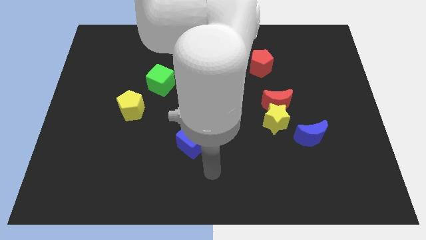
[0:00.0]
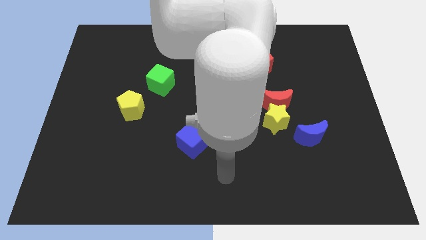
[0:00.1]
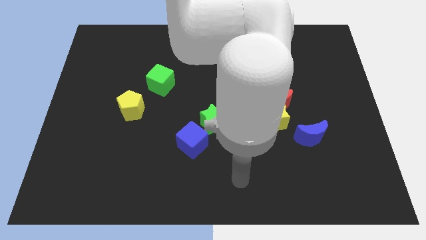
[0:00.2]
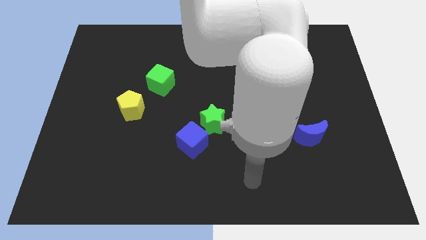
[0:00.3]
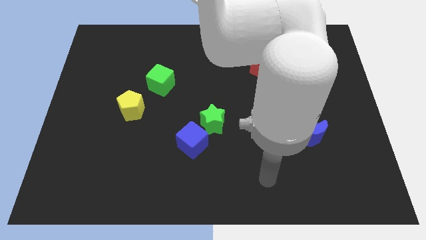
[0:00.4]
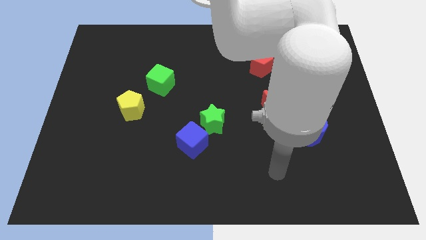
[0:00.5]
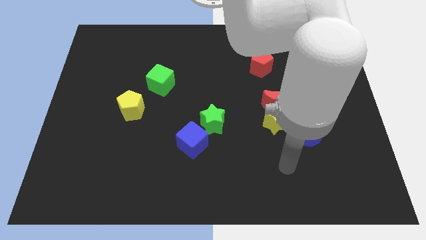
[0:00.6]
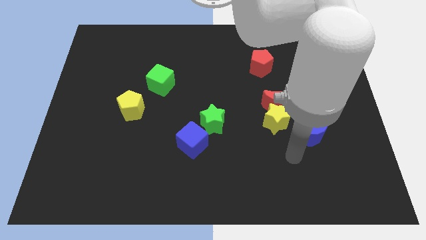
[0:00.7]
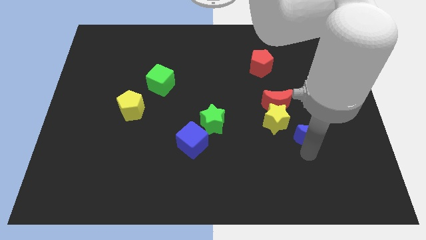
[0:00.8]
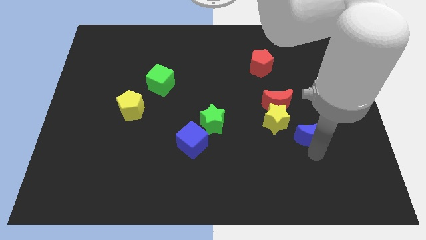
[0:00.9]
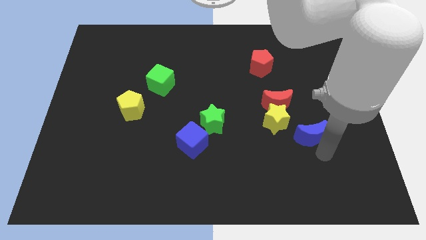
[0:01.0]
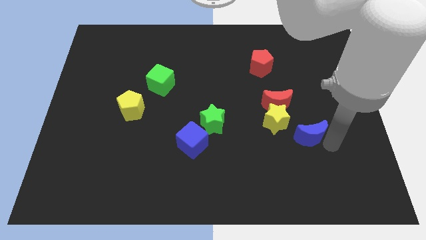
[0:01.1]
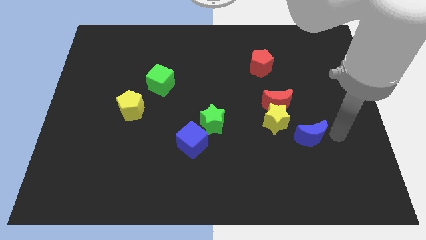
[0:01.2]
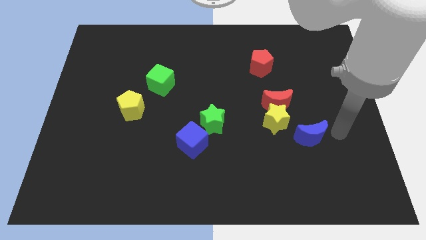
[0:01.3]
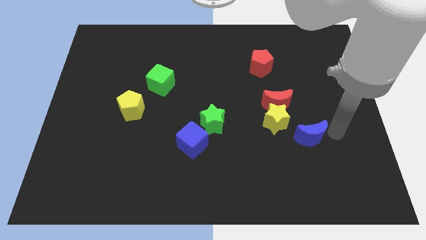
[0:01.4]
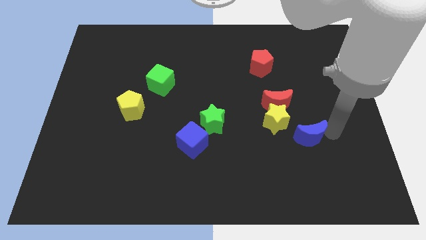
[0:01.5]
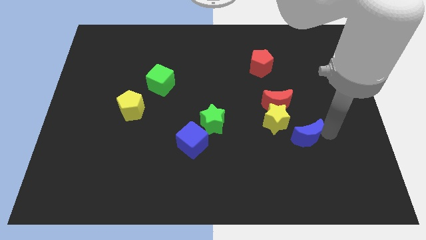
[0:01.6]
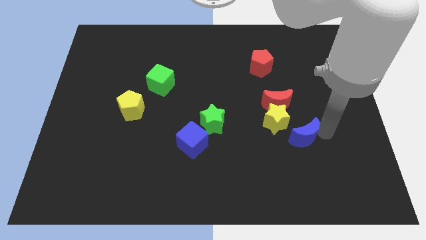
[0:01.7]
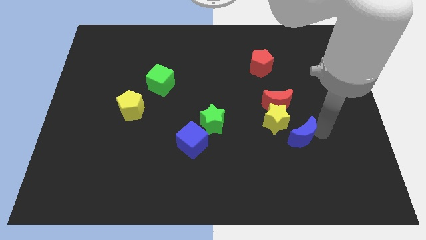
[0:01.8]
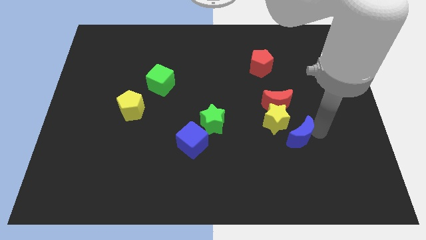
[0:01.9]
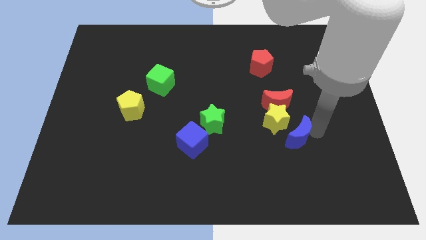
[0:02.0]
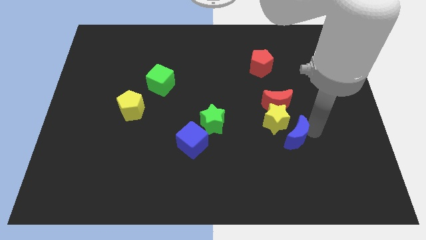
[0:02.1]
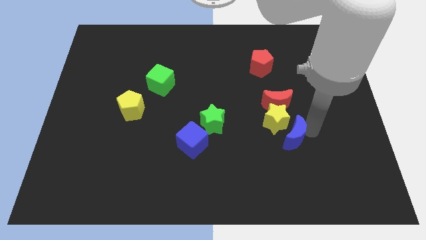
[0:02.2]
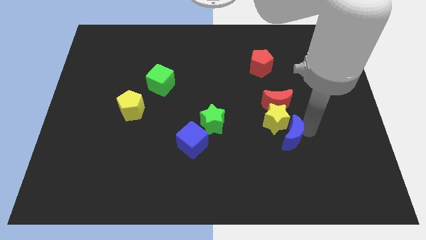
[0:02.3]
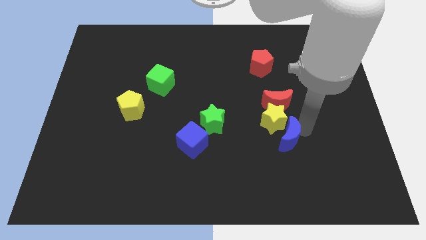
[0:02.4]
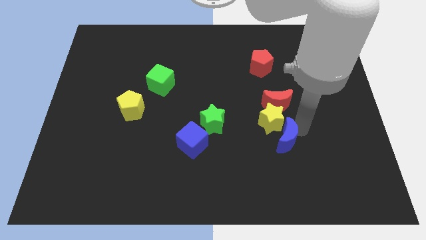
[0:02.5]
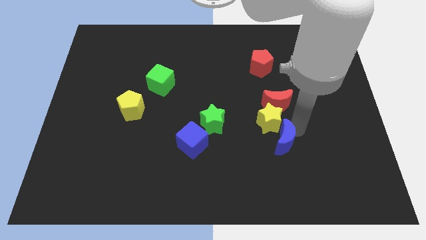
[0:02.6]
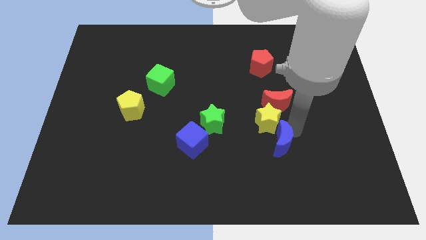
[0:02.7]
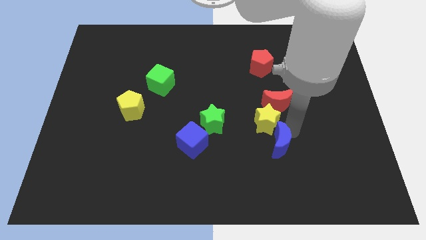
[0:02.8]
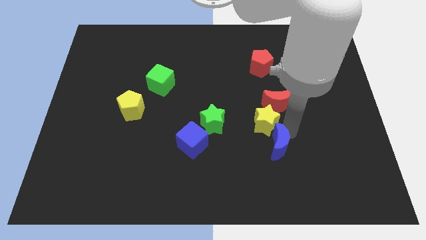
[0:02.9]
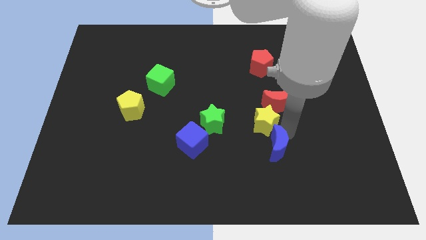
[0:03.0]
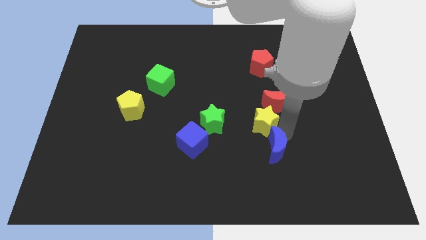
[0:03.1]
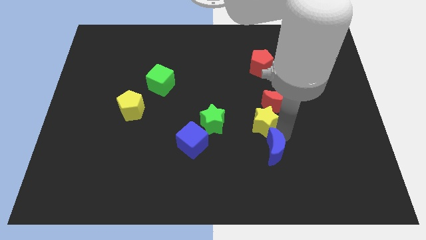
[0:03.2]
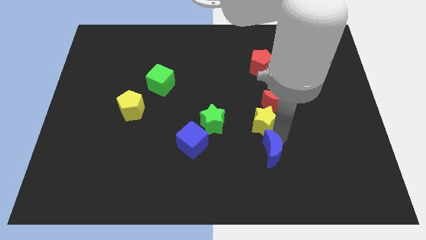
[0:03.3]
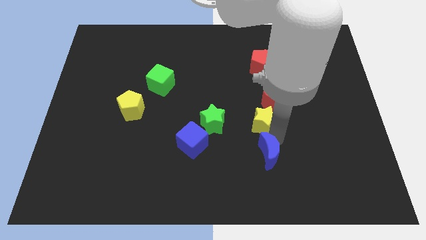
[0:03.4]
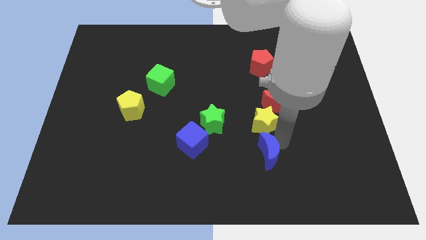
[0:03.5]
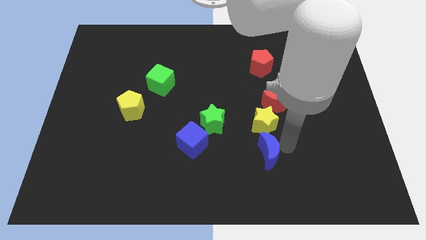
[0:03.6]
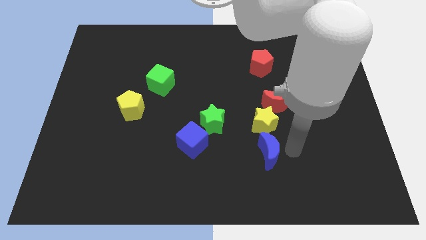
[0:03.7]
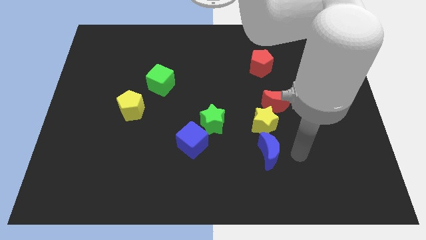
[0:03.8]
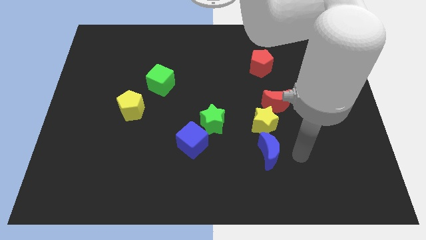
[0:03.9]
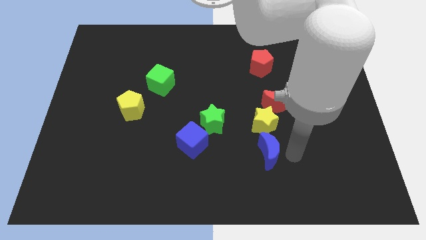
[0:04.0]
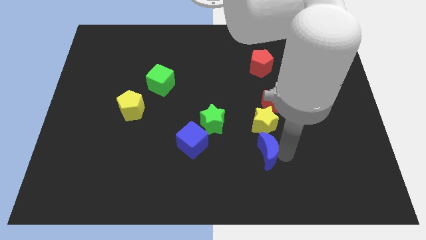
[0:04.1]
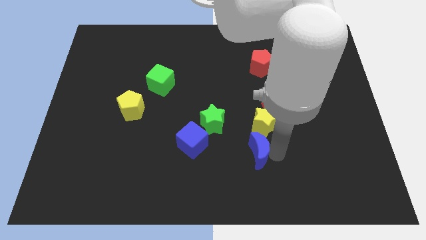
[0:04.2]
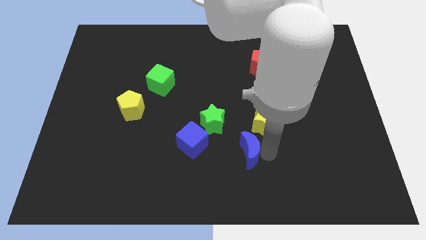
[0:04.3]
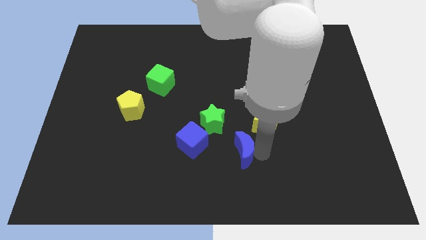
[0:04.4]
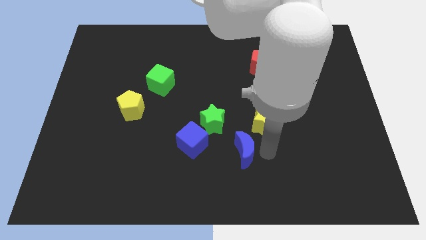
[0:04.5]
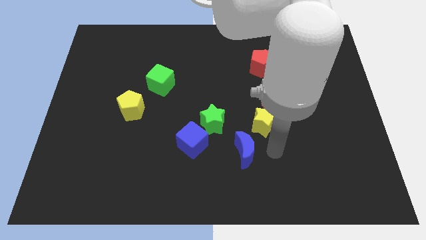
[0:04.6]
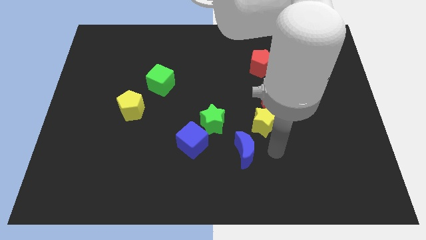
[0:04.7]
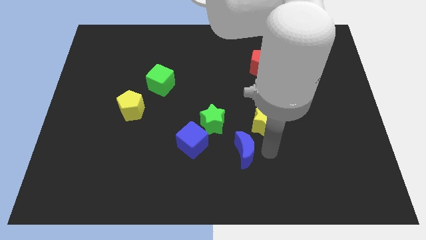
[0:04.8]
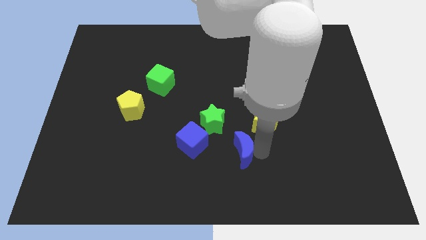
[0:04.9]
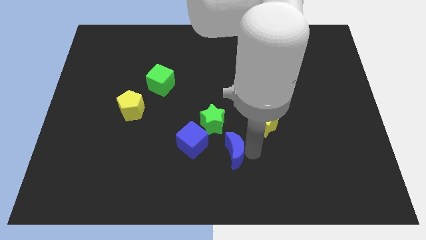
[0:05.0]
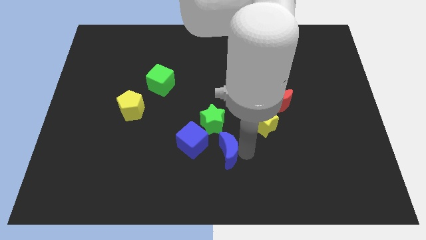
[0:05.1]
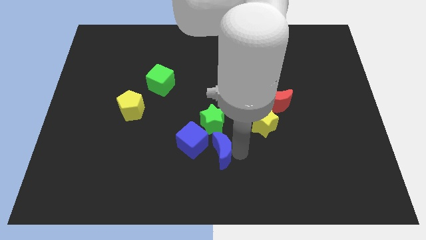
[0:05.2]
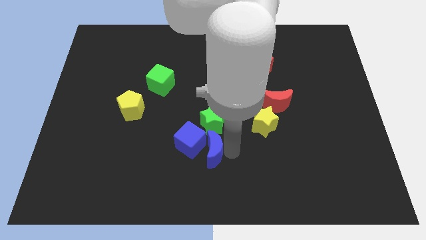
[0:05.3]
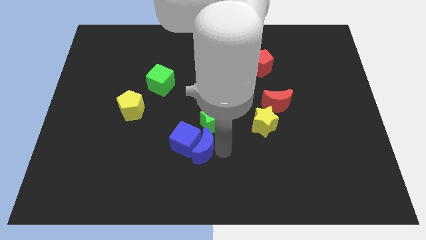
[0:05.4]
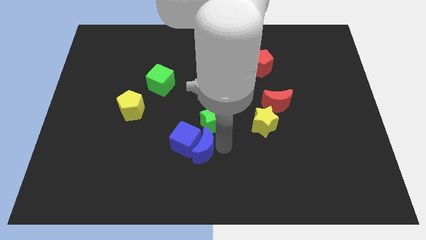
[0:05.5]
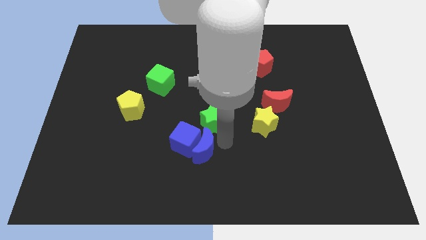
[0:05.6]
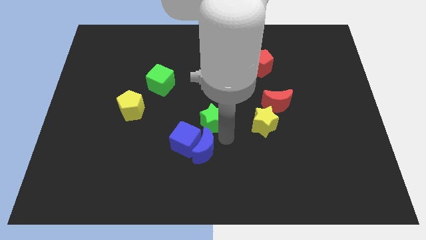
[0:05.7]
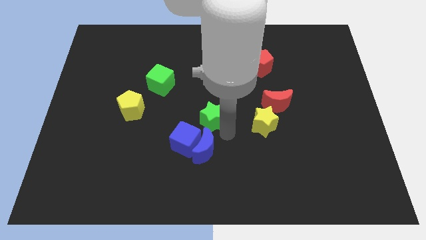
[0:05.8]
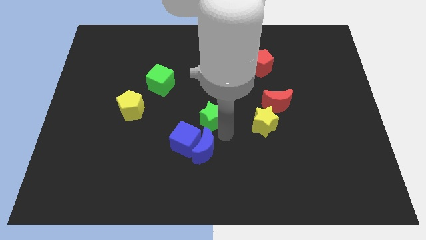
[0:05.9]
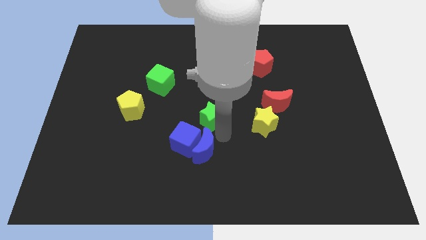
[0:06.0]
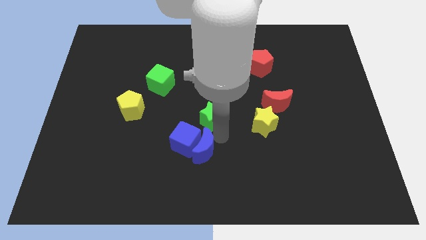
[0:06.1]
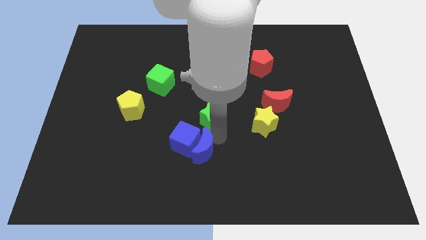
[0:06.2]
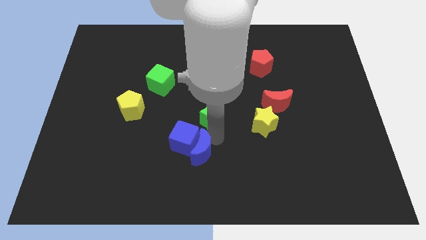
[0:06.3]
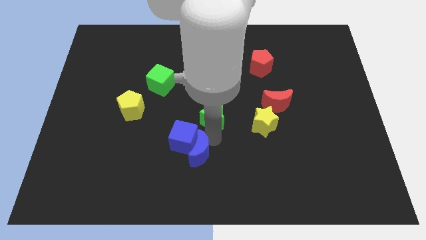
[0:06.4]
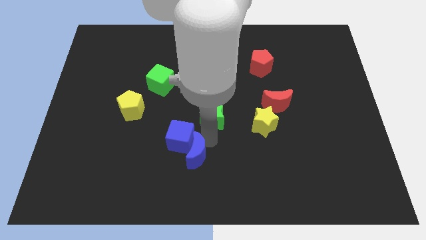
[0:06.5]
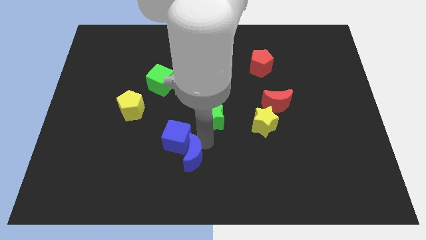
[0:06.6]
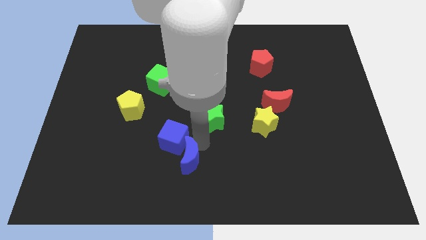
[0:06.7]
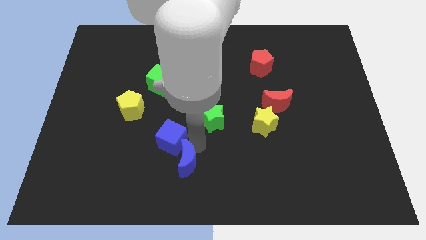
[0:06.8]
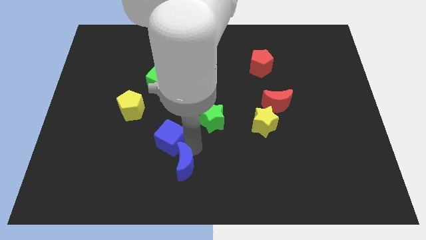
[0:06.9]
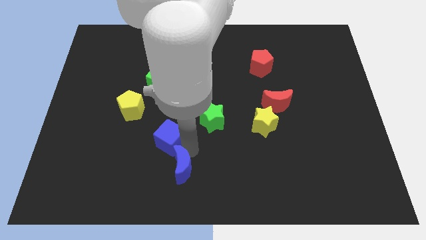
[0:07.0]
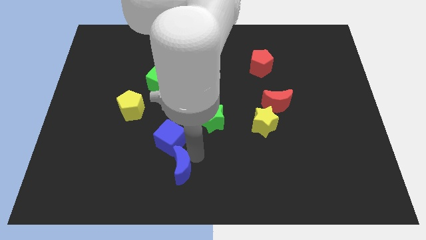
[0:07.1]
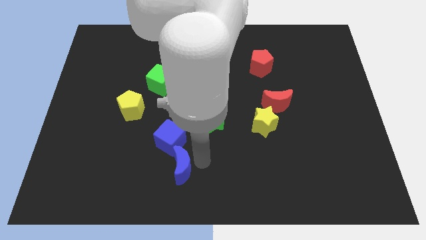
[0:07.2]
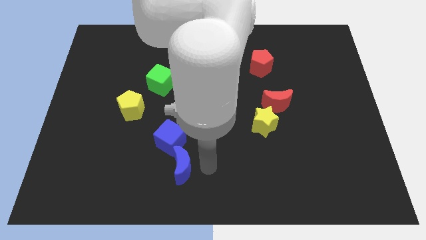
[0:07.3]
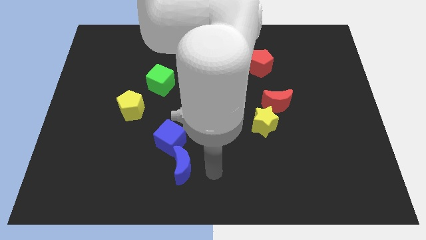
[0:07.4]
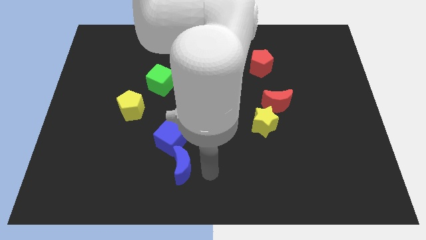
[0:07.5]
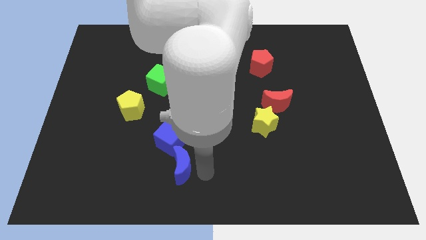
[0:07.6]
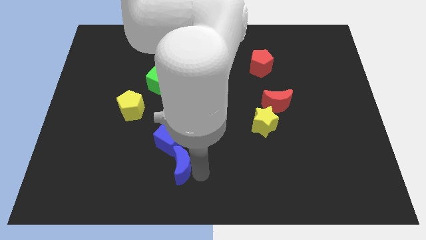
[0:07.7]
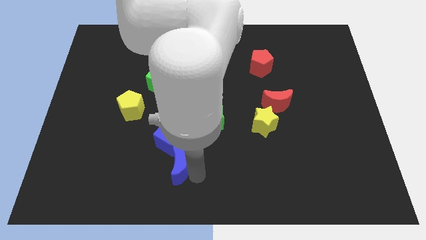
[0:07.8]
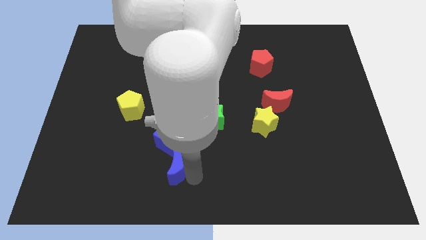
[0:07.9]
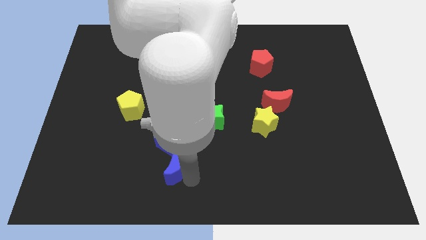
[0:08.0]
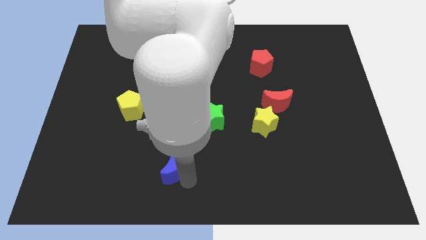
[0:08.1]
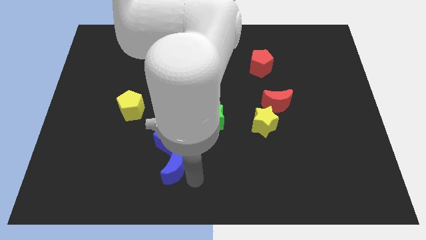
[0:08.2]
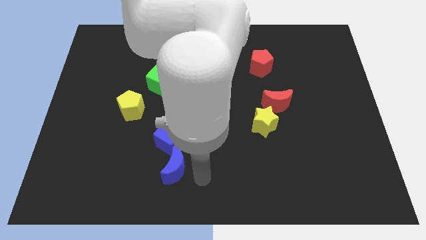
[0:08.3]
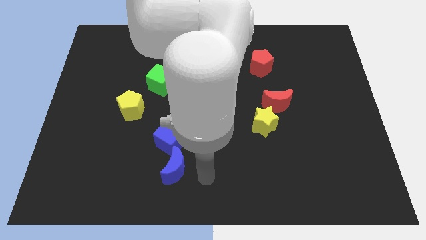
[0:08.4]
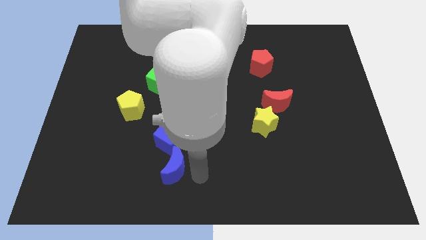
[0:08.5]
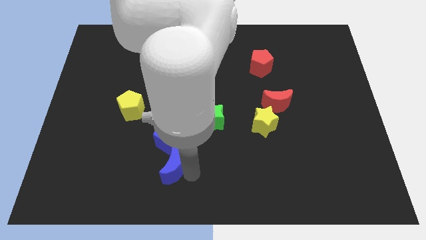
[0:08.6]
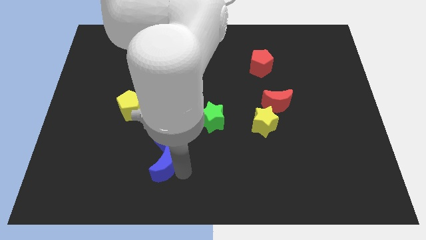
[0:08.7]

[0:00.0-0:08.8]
move the blue moon to the bottom left side of the blue cube
